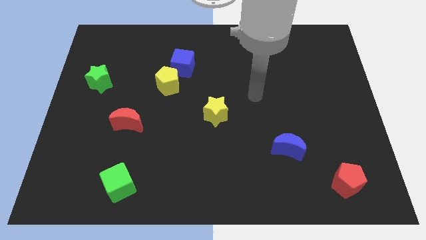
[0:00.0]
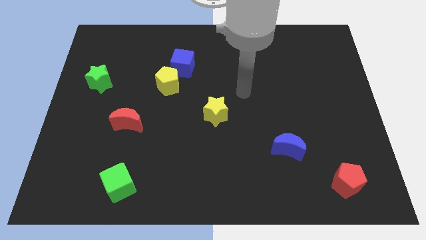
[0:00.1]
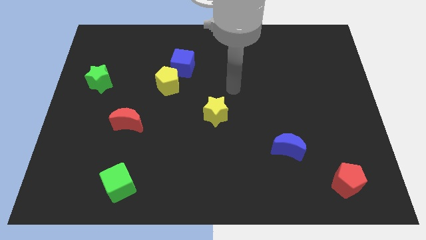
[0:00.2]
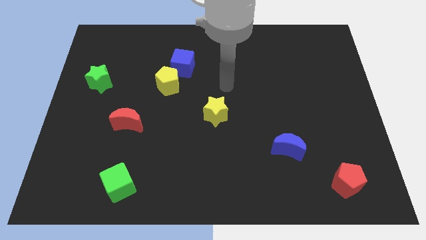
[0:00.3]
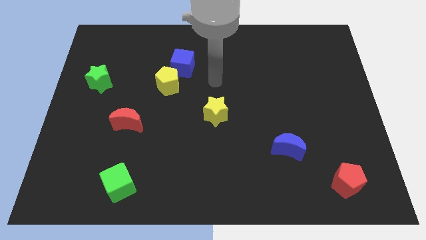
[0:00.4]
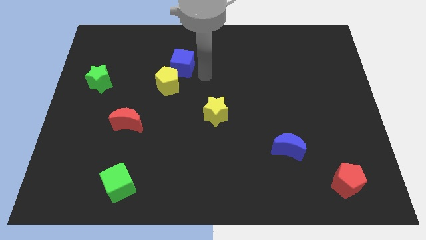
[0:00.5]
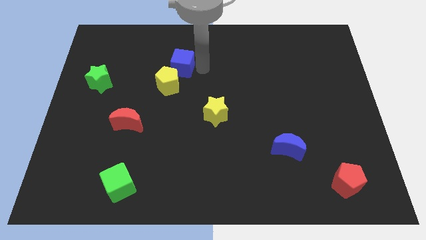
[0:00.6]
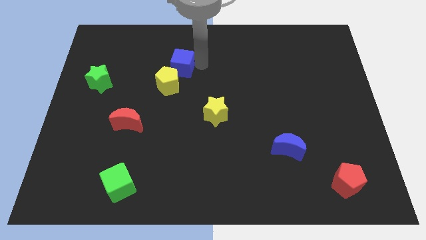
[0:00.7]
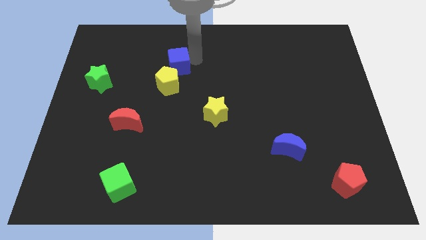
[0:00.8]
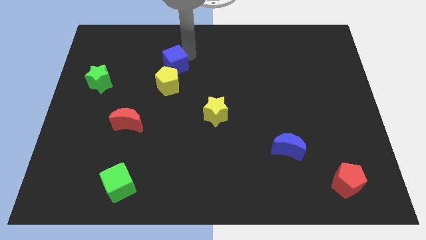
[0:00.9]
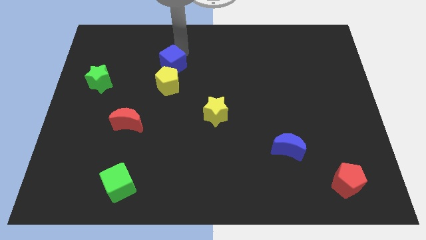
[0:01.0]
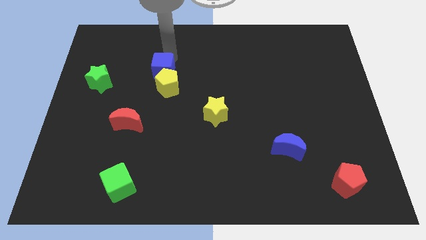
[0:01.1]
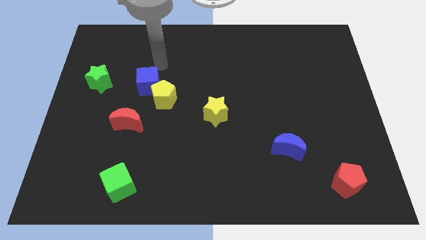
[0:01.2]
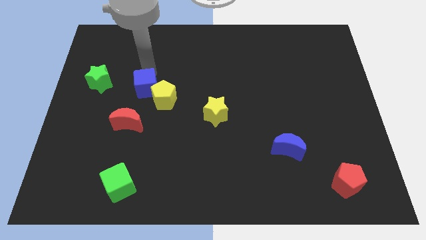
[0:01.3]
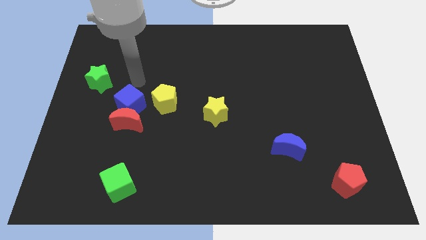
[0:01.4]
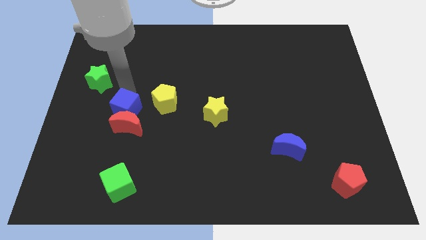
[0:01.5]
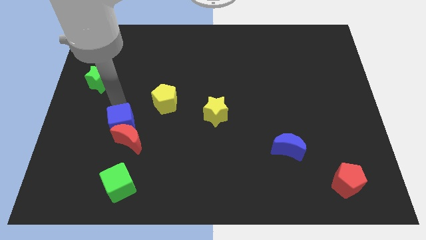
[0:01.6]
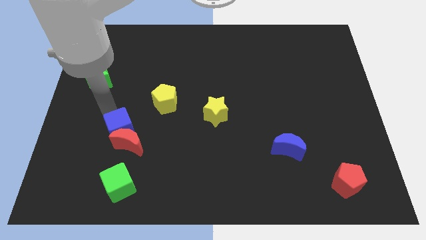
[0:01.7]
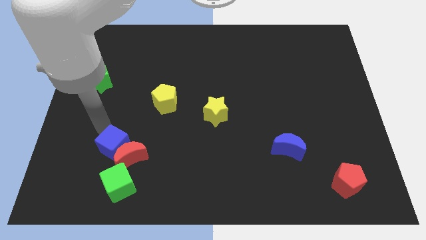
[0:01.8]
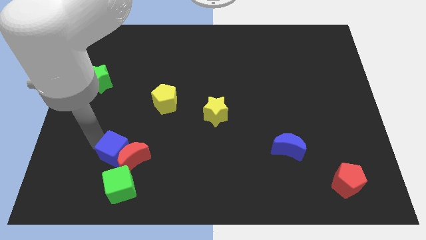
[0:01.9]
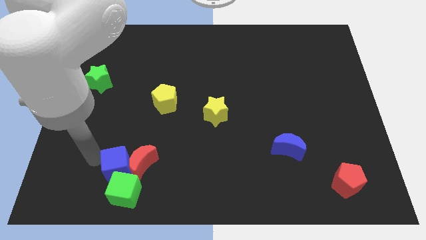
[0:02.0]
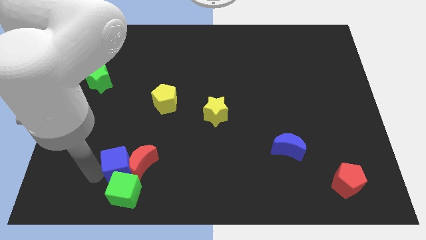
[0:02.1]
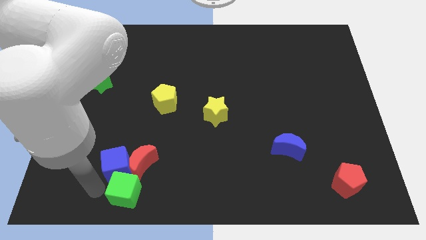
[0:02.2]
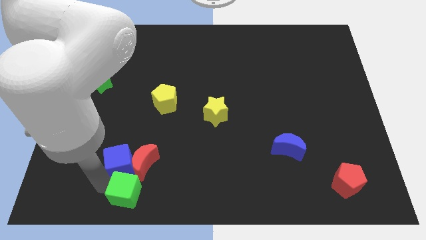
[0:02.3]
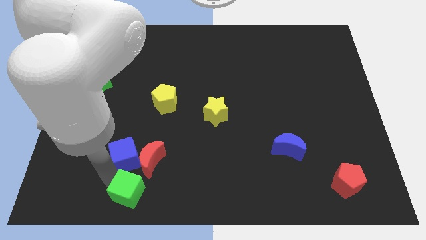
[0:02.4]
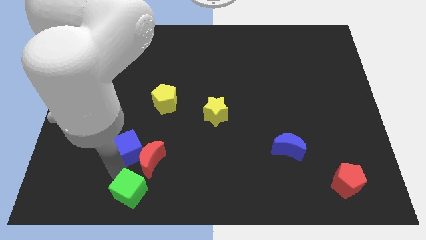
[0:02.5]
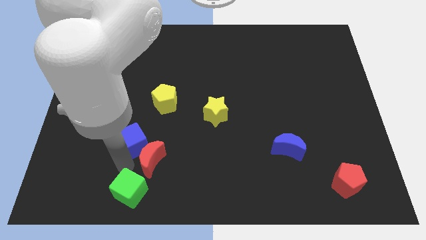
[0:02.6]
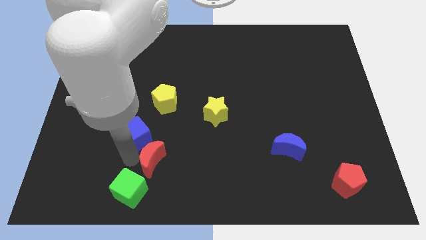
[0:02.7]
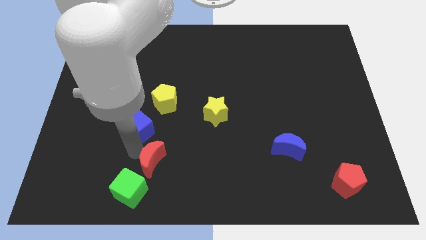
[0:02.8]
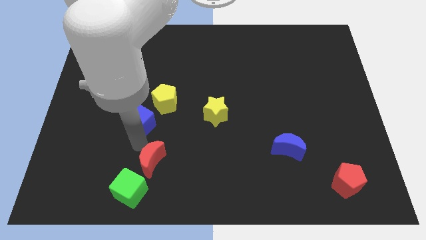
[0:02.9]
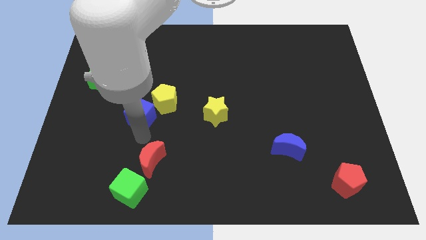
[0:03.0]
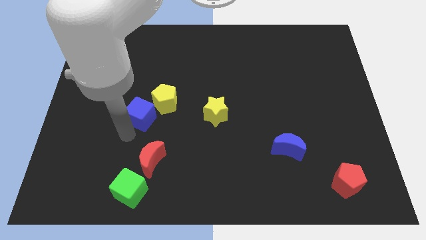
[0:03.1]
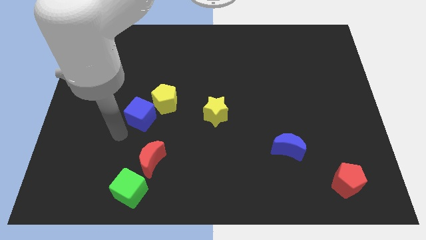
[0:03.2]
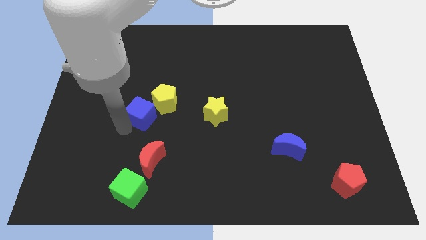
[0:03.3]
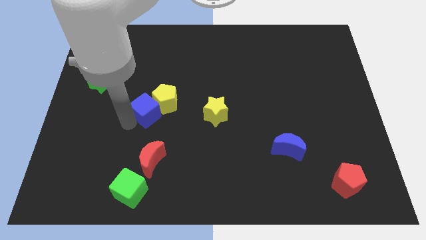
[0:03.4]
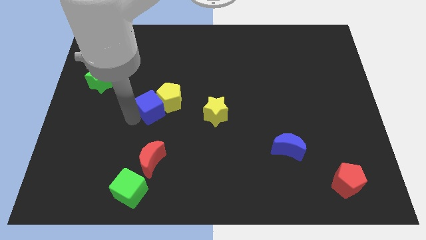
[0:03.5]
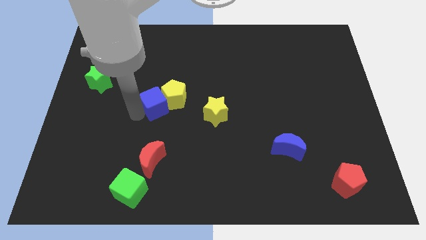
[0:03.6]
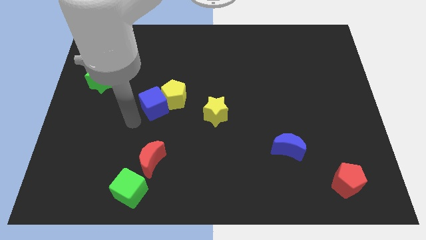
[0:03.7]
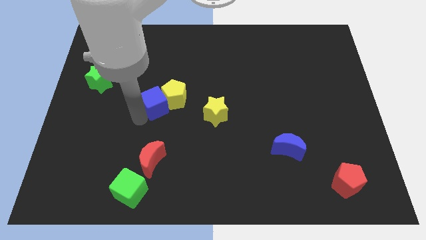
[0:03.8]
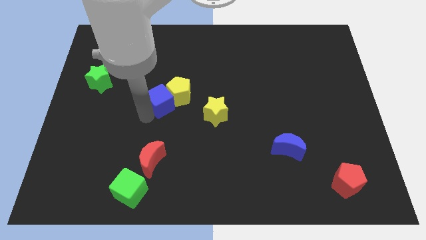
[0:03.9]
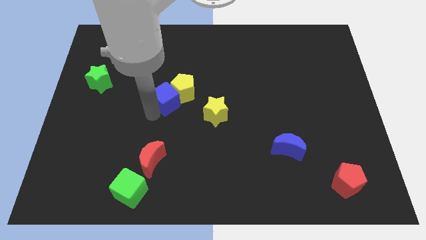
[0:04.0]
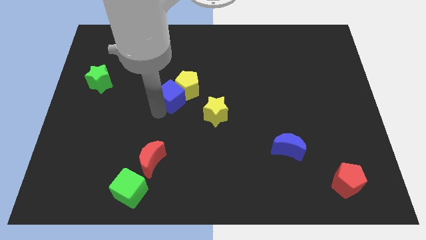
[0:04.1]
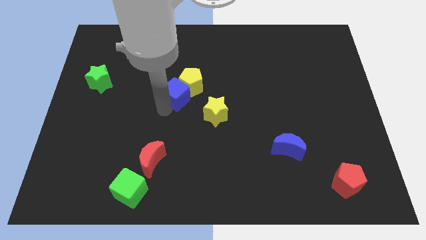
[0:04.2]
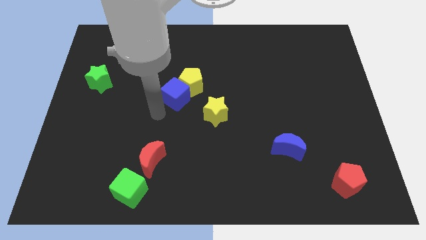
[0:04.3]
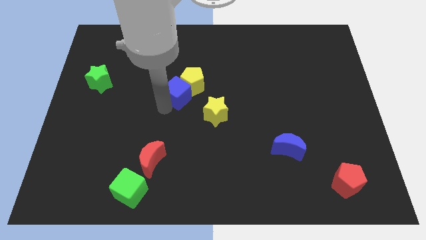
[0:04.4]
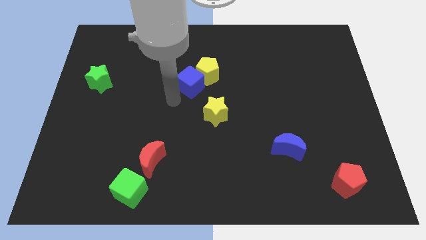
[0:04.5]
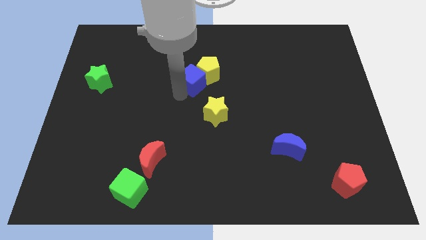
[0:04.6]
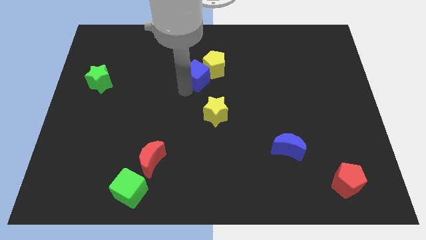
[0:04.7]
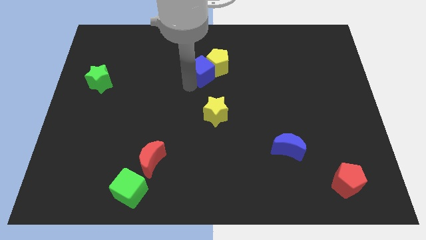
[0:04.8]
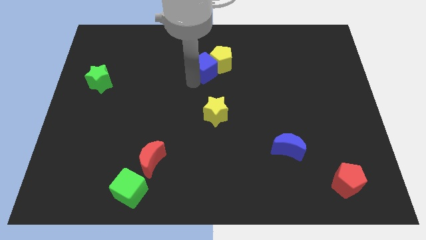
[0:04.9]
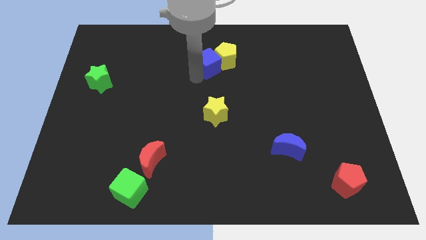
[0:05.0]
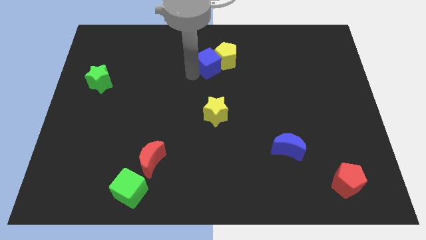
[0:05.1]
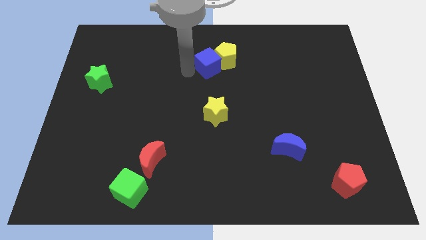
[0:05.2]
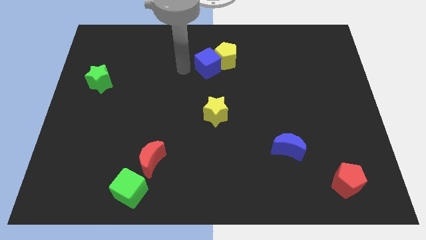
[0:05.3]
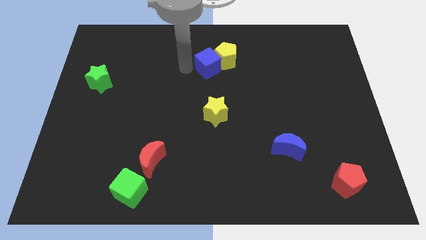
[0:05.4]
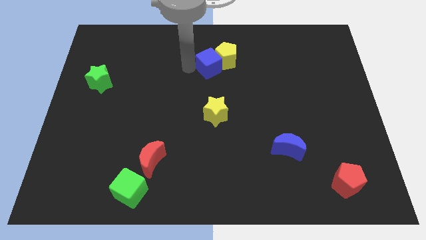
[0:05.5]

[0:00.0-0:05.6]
slightly move the blue cube right

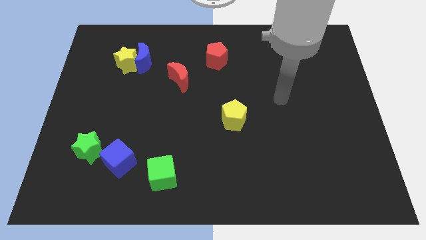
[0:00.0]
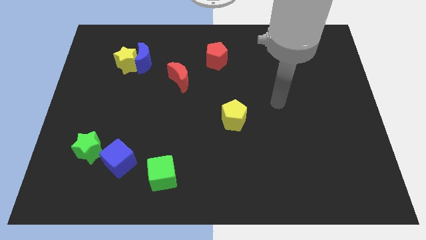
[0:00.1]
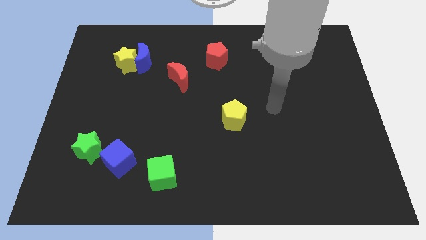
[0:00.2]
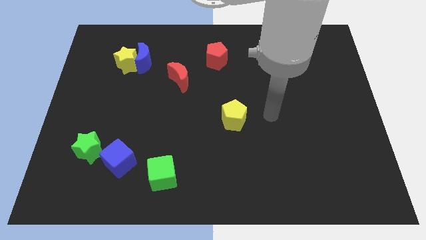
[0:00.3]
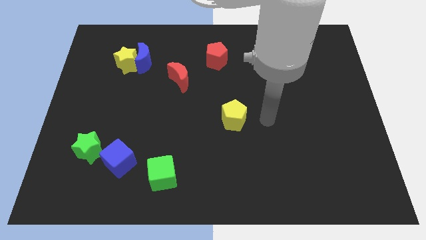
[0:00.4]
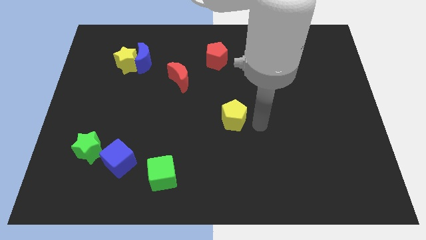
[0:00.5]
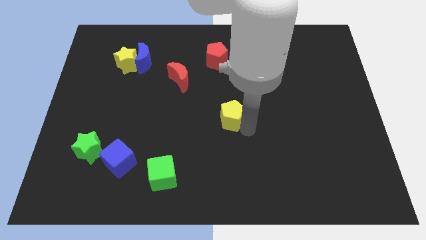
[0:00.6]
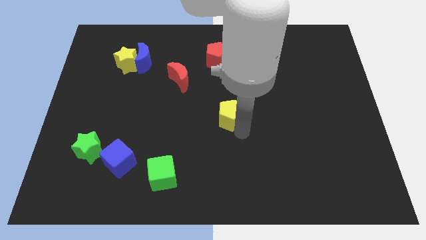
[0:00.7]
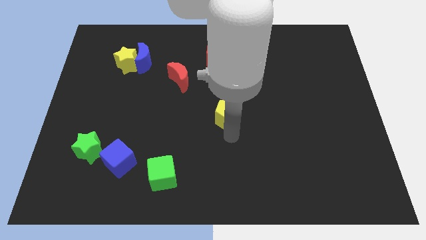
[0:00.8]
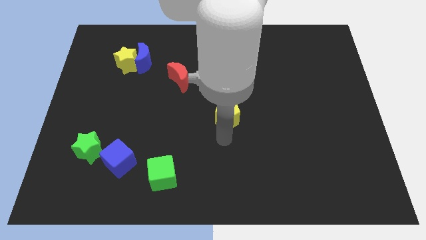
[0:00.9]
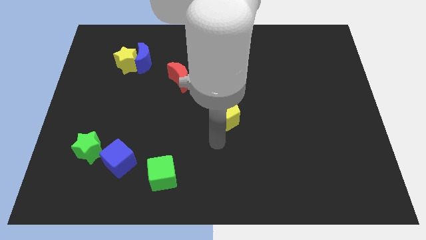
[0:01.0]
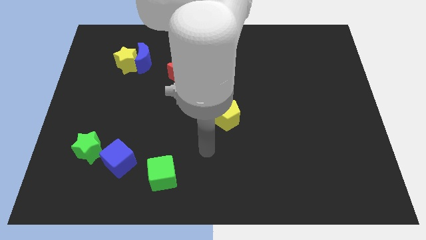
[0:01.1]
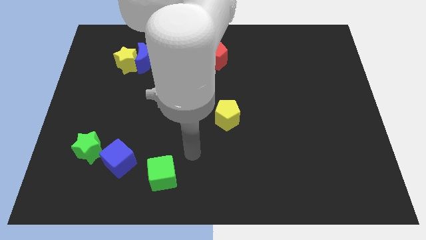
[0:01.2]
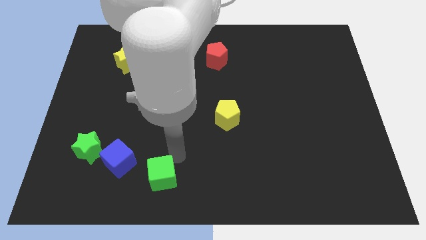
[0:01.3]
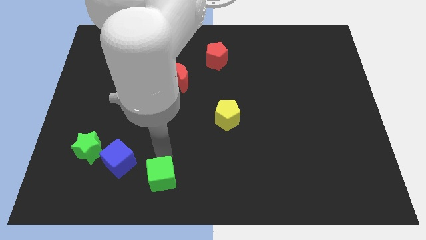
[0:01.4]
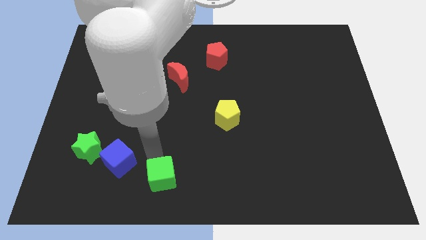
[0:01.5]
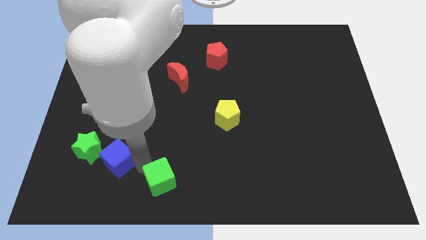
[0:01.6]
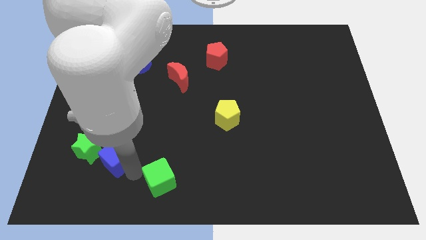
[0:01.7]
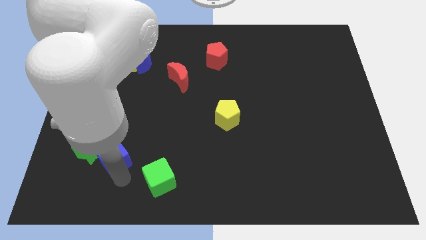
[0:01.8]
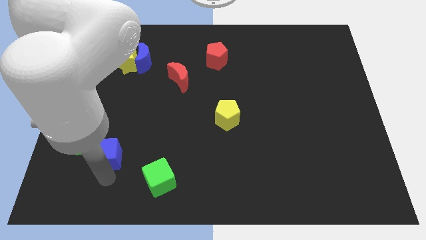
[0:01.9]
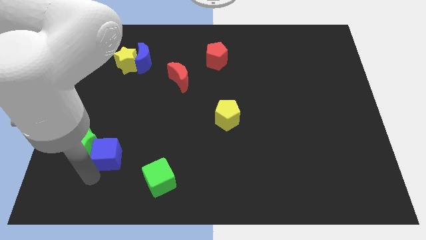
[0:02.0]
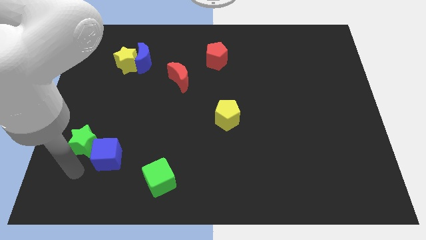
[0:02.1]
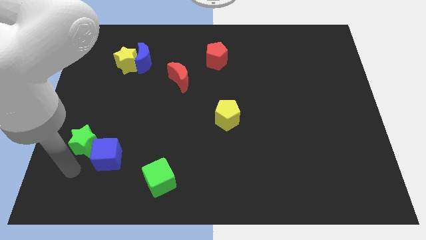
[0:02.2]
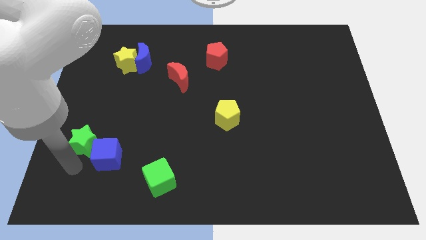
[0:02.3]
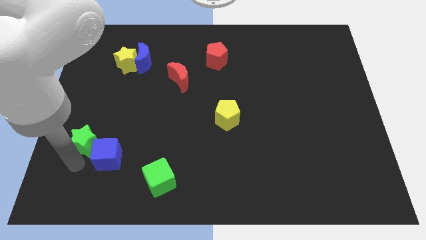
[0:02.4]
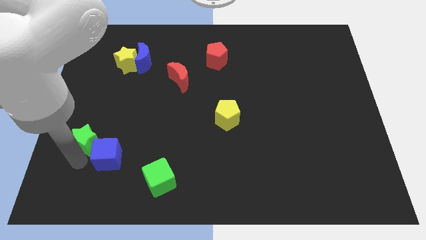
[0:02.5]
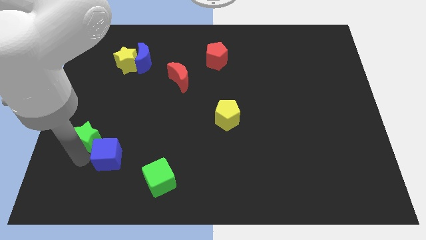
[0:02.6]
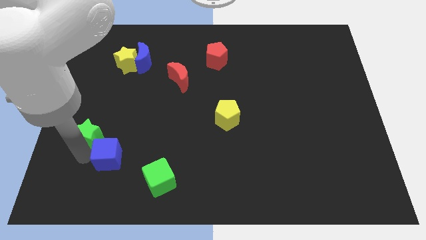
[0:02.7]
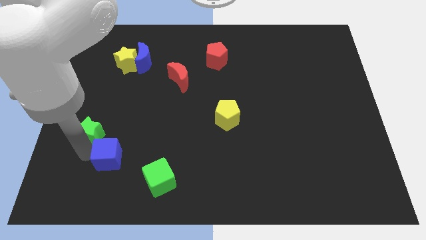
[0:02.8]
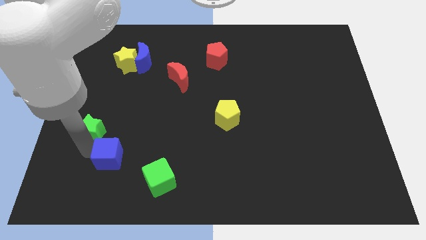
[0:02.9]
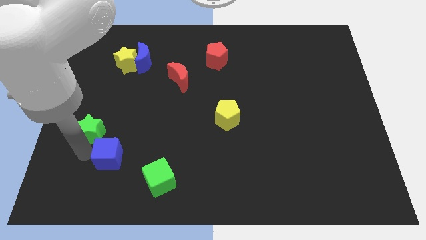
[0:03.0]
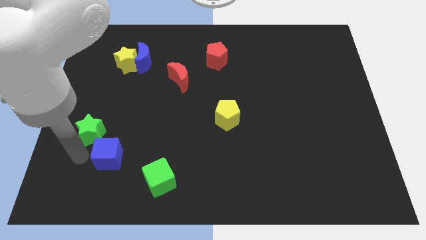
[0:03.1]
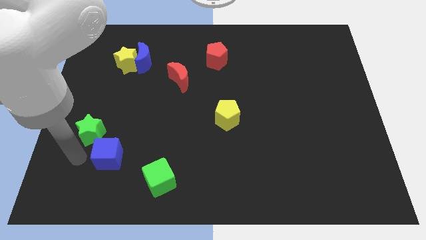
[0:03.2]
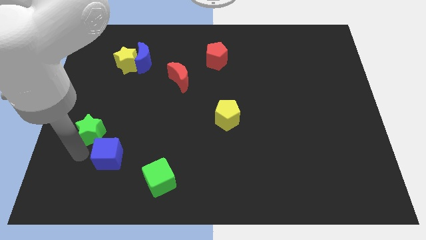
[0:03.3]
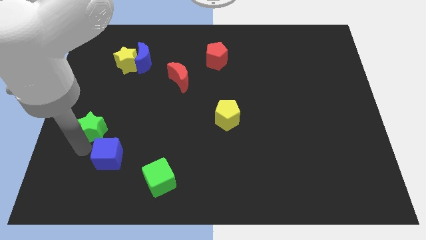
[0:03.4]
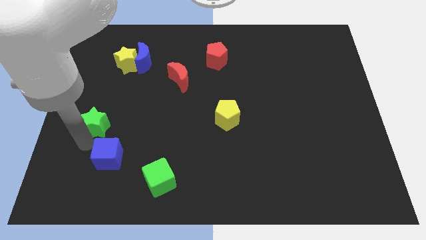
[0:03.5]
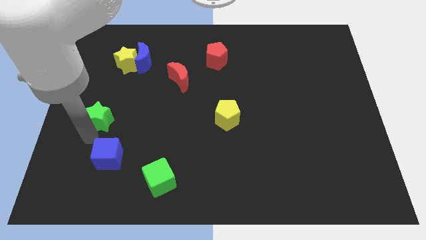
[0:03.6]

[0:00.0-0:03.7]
slightly slide the green star upwards
